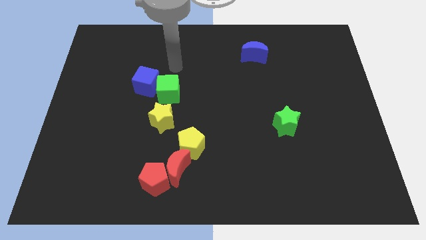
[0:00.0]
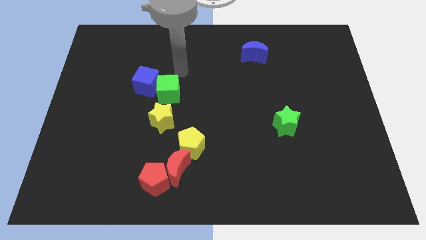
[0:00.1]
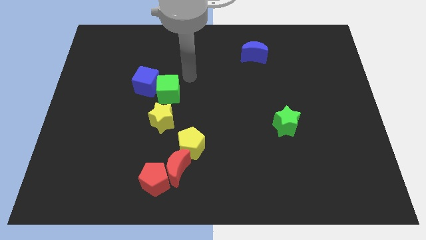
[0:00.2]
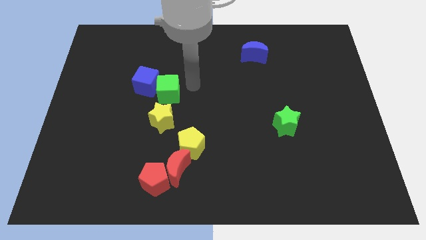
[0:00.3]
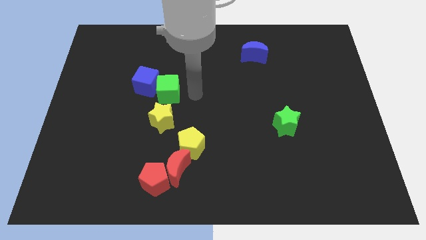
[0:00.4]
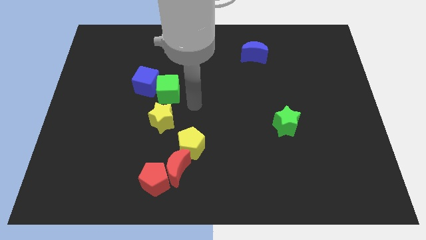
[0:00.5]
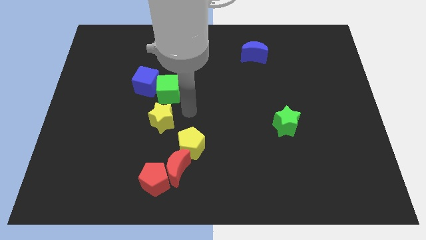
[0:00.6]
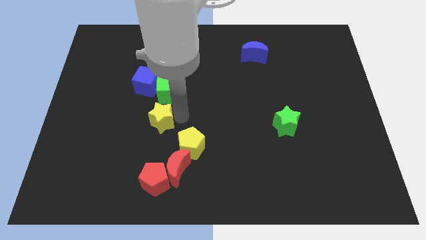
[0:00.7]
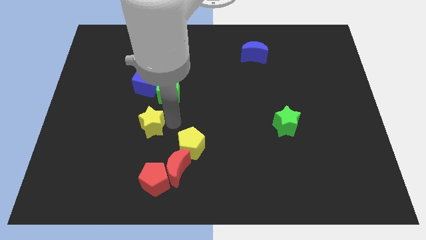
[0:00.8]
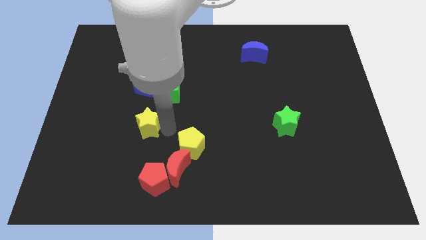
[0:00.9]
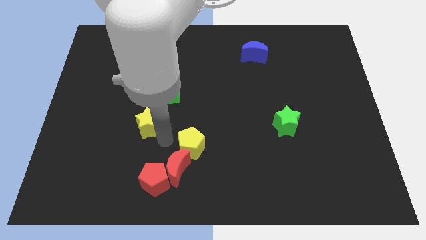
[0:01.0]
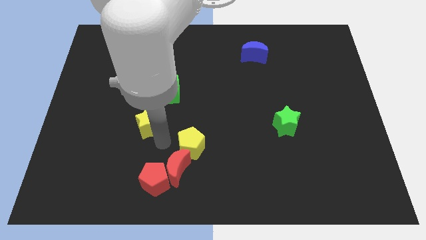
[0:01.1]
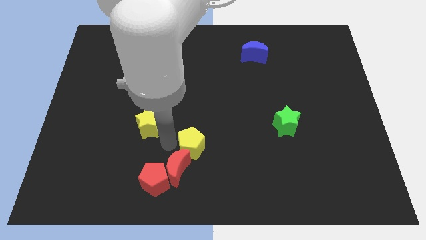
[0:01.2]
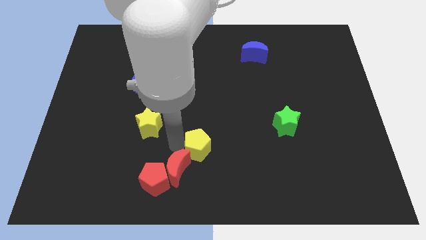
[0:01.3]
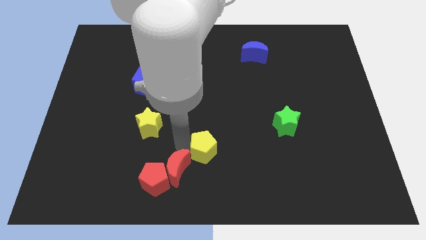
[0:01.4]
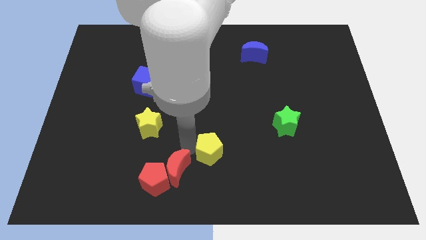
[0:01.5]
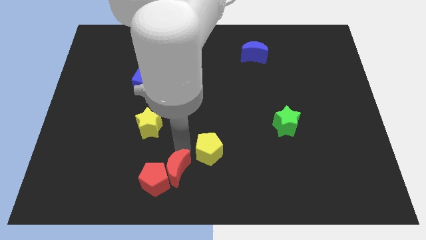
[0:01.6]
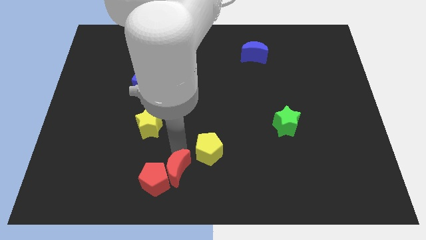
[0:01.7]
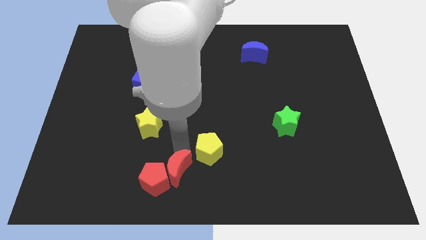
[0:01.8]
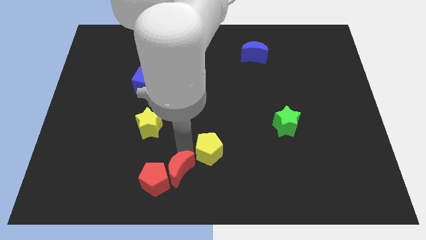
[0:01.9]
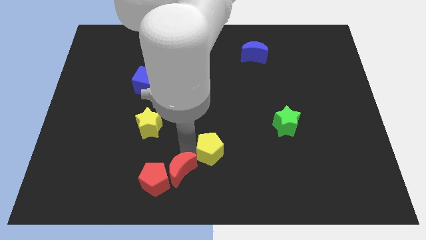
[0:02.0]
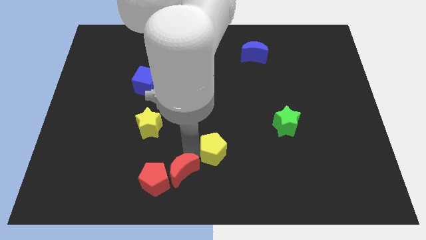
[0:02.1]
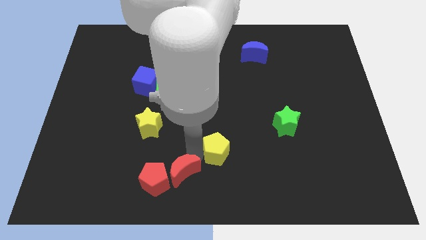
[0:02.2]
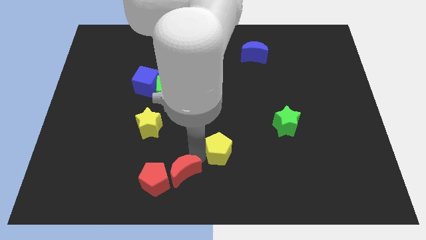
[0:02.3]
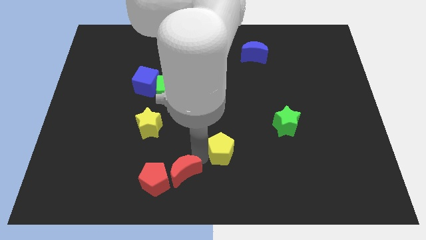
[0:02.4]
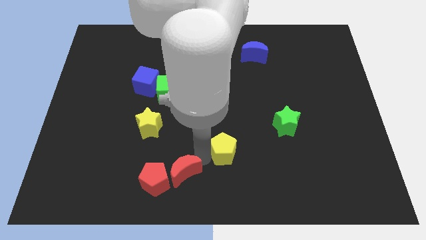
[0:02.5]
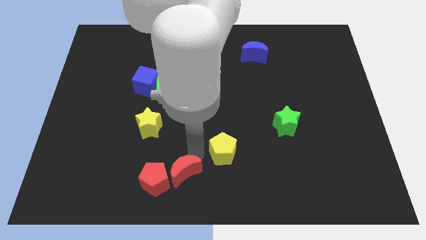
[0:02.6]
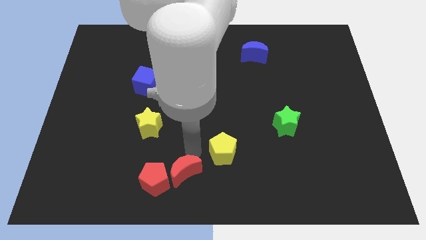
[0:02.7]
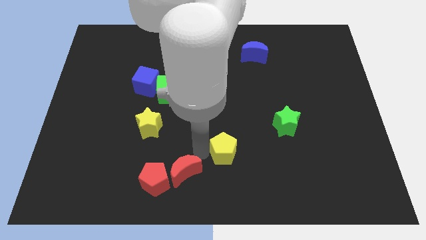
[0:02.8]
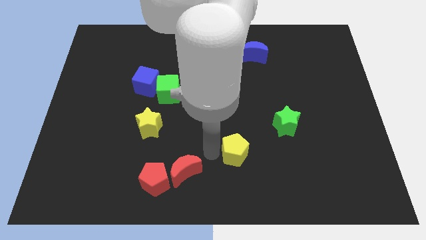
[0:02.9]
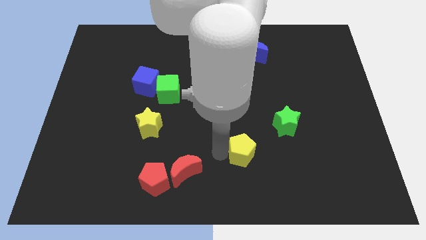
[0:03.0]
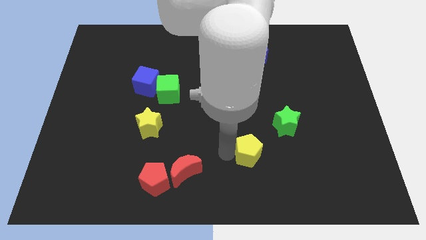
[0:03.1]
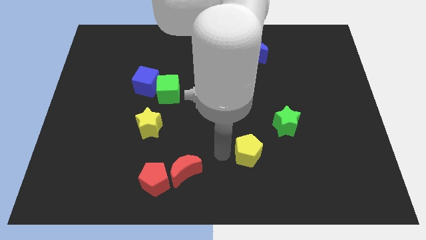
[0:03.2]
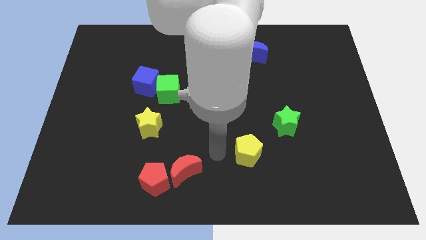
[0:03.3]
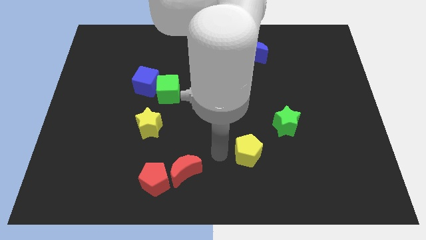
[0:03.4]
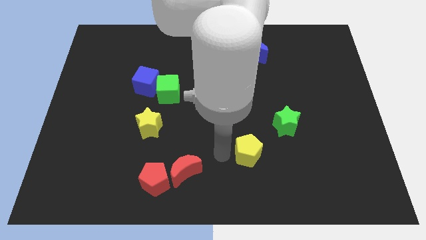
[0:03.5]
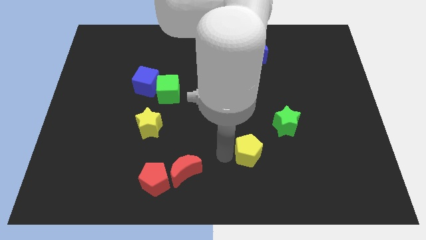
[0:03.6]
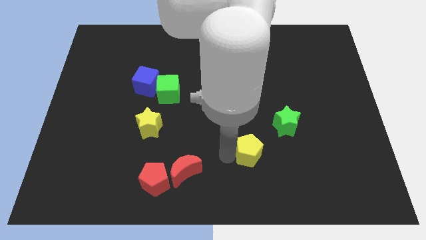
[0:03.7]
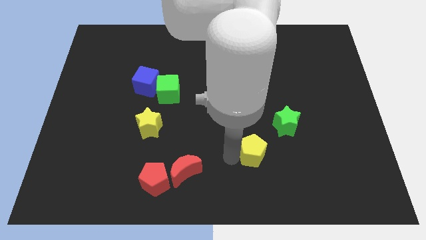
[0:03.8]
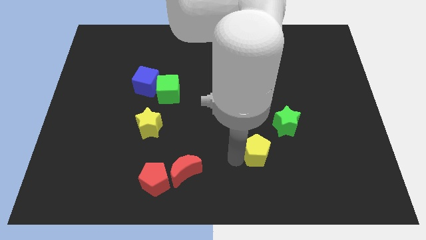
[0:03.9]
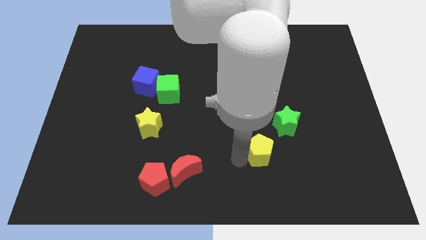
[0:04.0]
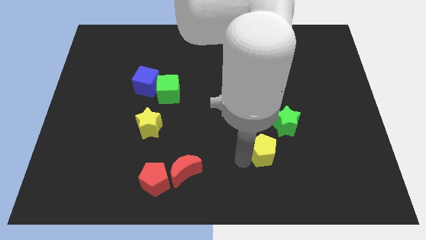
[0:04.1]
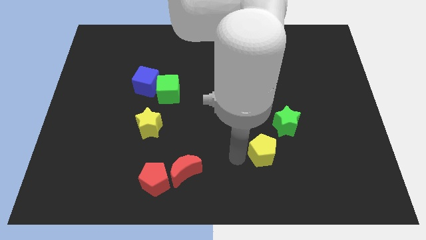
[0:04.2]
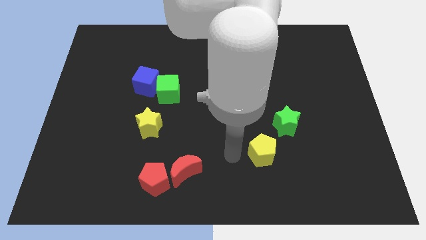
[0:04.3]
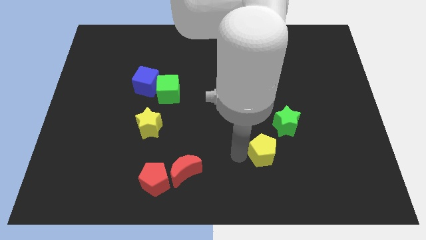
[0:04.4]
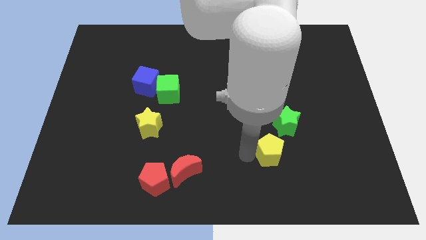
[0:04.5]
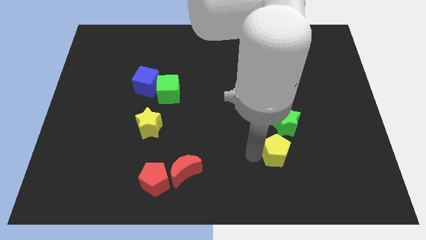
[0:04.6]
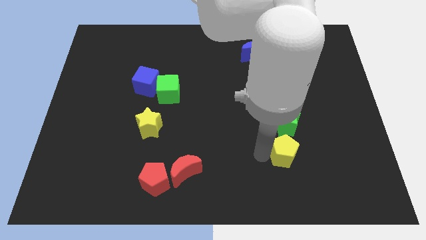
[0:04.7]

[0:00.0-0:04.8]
move the yellow pentagon to the right

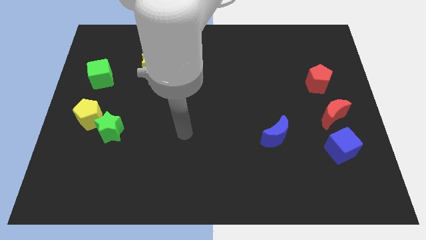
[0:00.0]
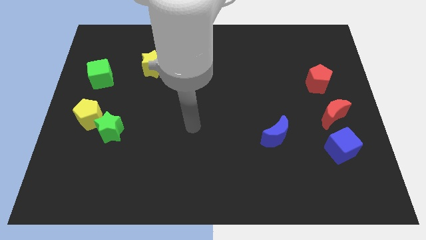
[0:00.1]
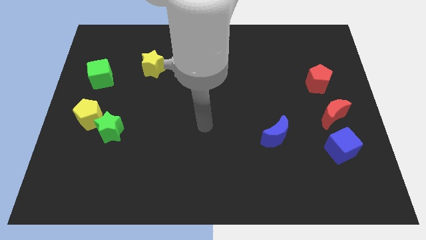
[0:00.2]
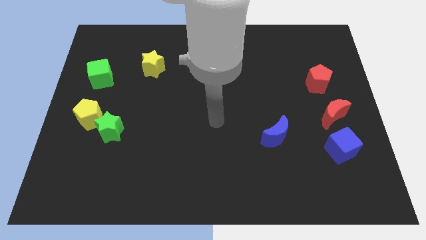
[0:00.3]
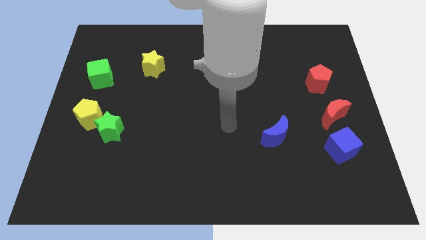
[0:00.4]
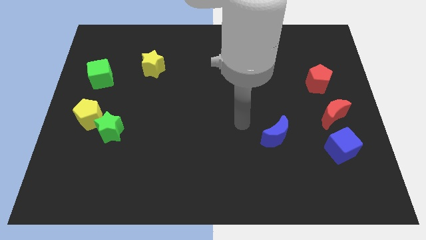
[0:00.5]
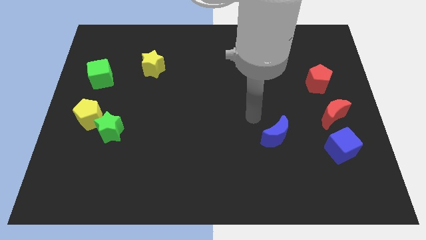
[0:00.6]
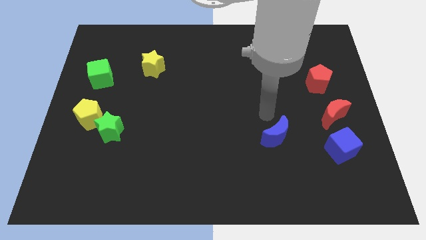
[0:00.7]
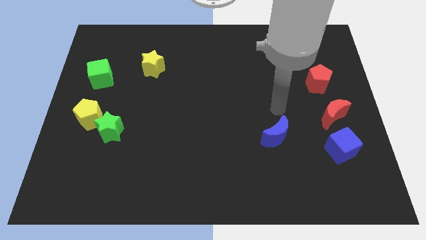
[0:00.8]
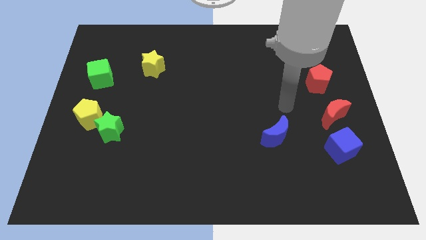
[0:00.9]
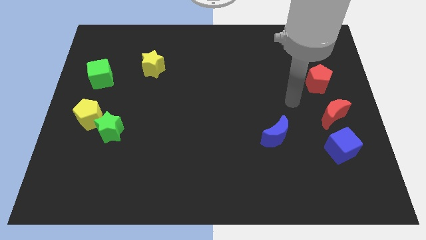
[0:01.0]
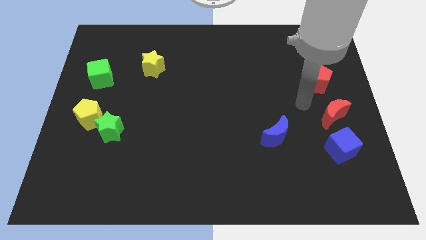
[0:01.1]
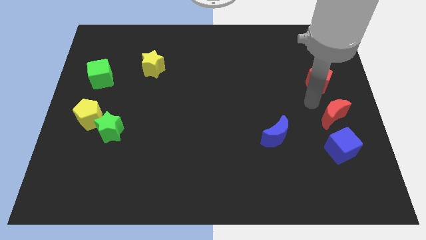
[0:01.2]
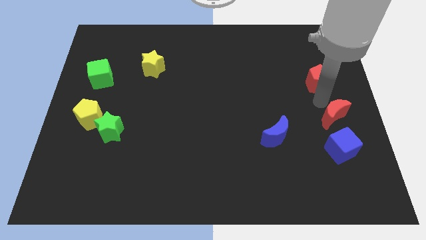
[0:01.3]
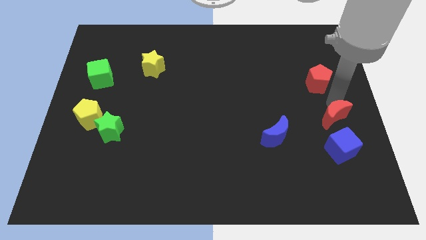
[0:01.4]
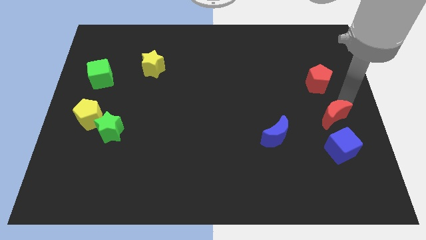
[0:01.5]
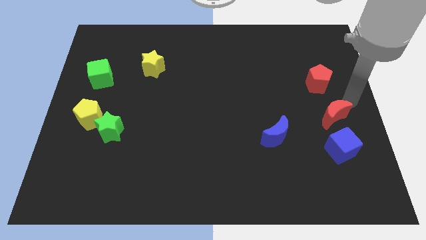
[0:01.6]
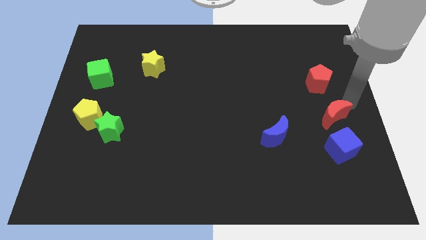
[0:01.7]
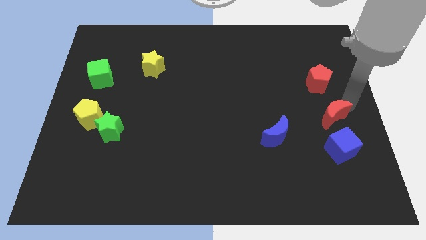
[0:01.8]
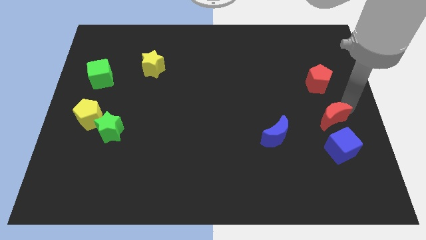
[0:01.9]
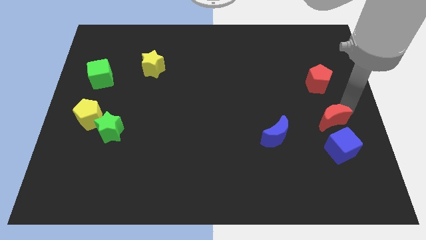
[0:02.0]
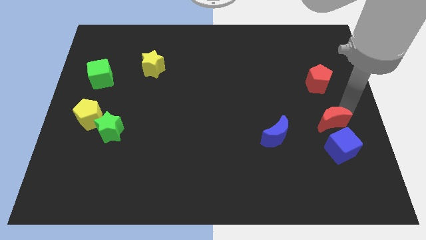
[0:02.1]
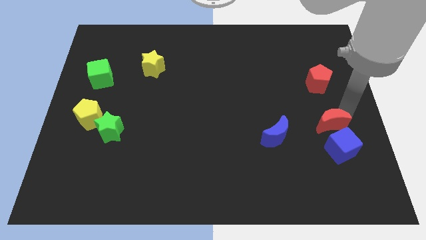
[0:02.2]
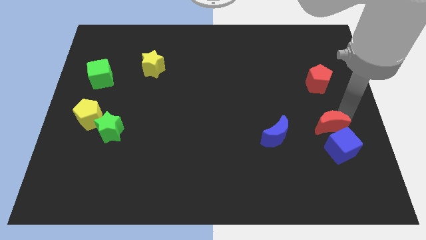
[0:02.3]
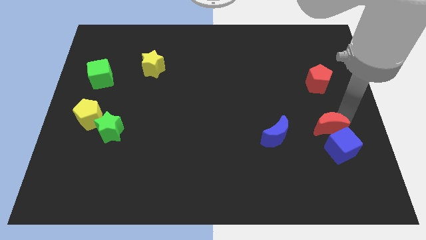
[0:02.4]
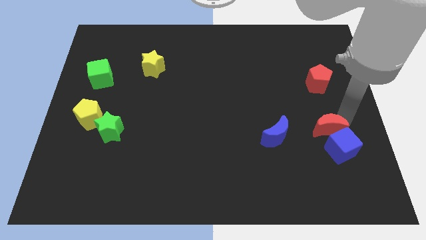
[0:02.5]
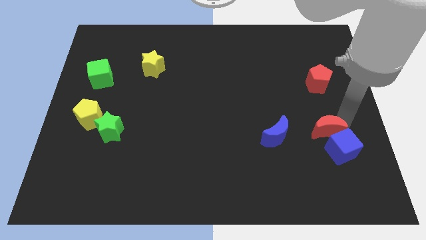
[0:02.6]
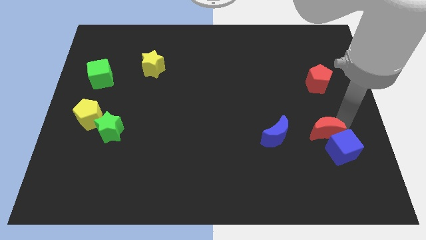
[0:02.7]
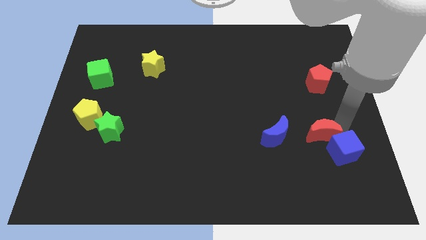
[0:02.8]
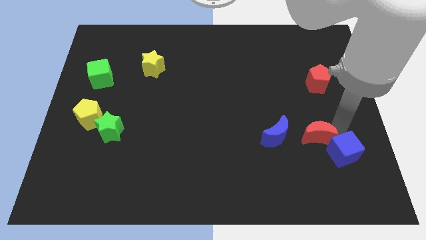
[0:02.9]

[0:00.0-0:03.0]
slightly slide the red moon downwards and then to the left

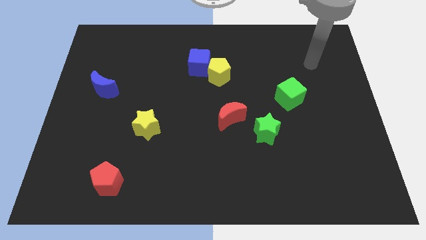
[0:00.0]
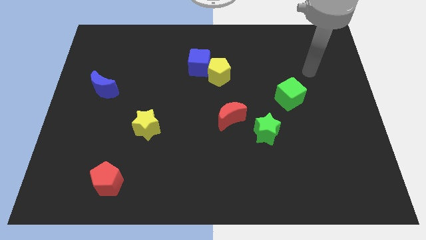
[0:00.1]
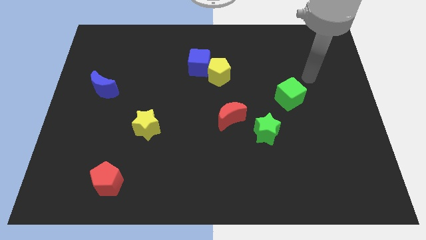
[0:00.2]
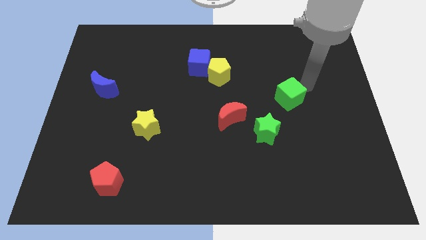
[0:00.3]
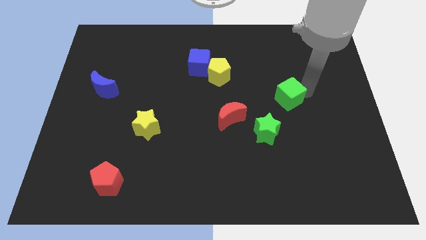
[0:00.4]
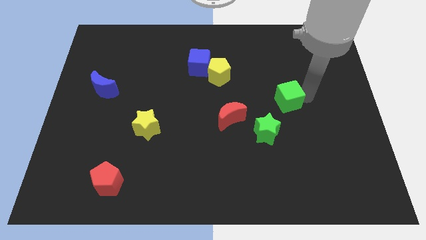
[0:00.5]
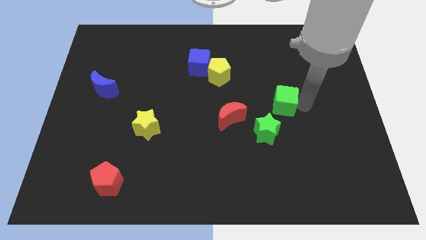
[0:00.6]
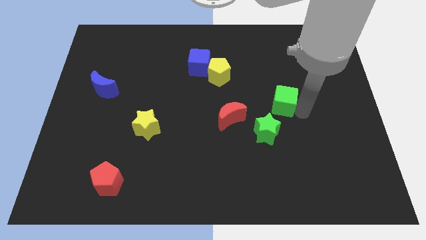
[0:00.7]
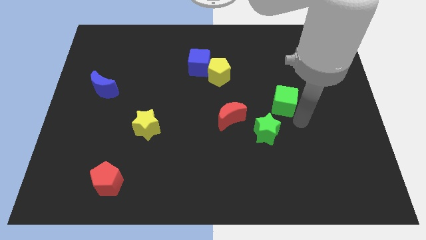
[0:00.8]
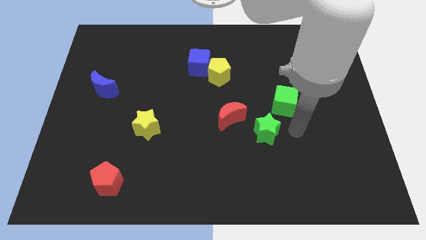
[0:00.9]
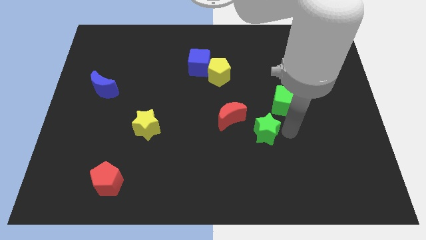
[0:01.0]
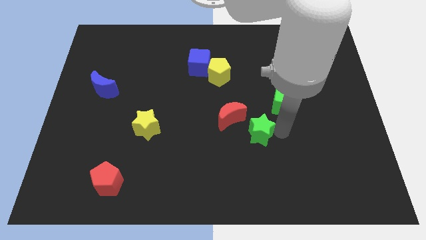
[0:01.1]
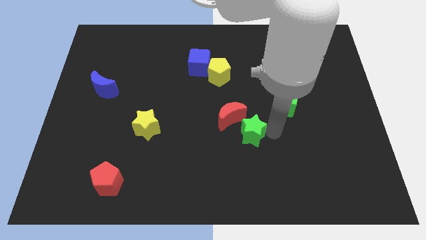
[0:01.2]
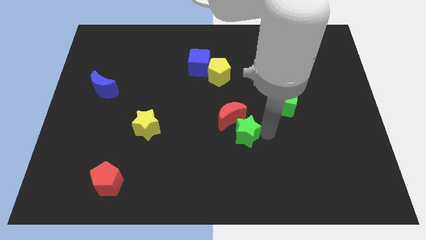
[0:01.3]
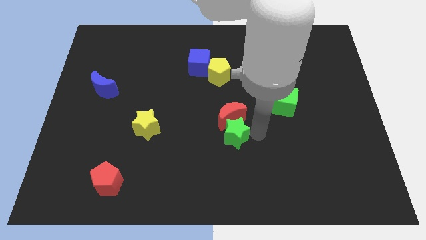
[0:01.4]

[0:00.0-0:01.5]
slide the green star left a little
